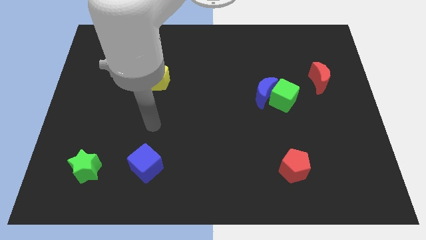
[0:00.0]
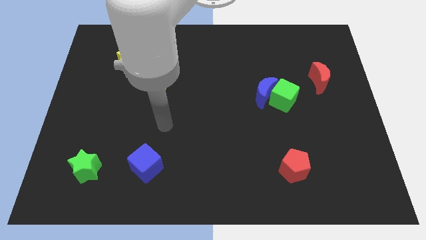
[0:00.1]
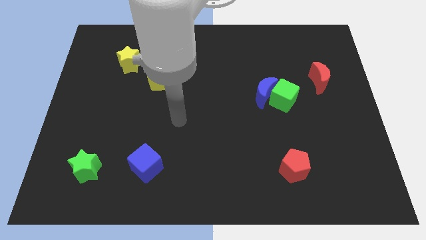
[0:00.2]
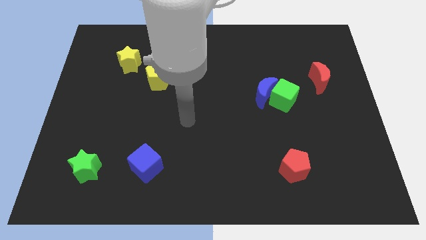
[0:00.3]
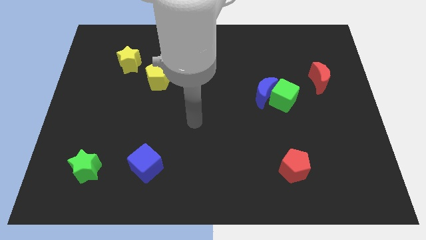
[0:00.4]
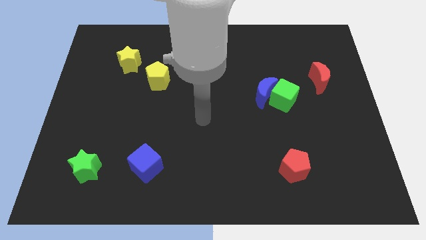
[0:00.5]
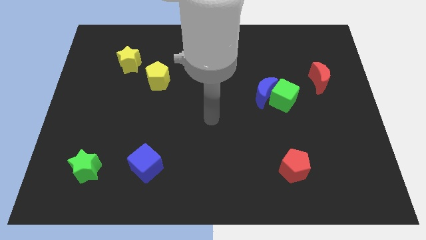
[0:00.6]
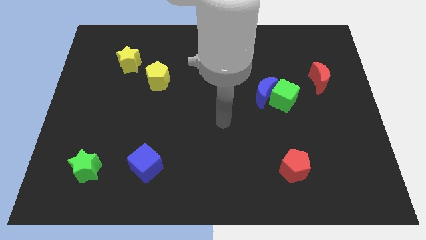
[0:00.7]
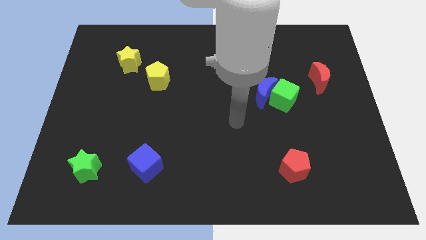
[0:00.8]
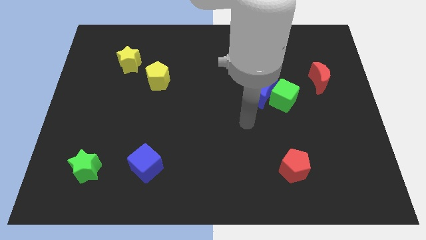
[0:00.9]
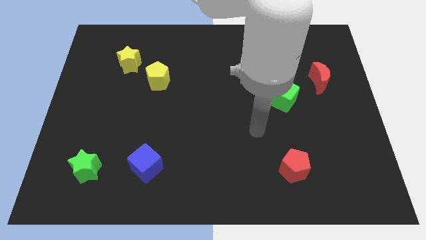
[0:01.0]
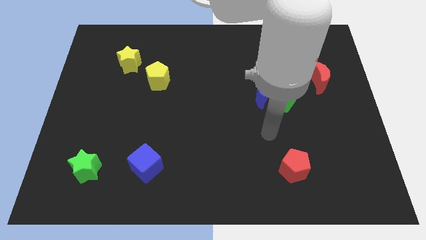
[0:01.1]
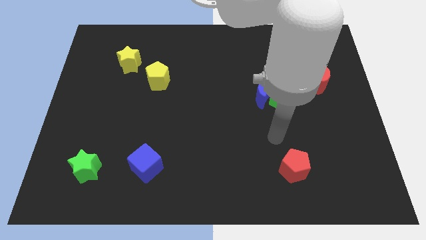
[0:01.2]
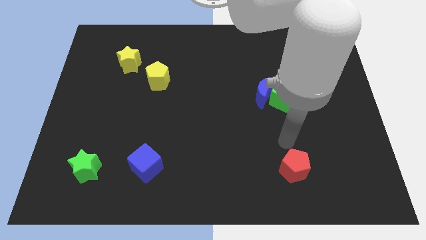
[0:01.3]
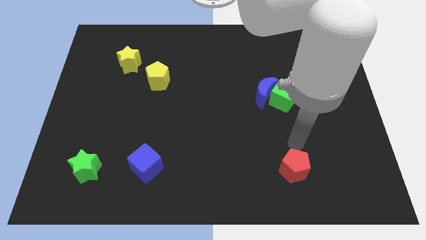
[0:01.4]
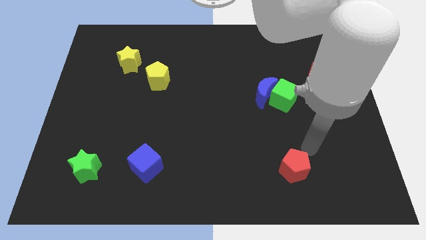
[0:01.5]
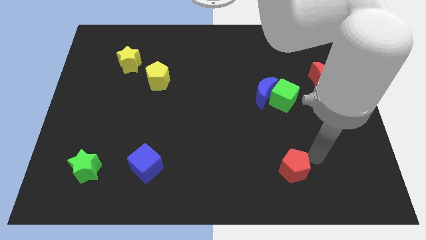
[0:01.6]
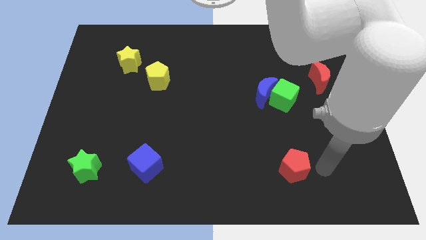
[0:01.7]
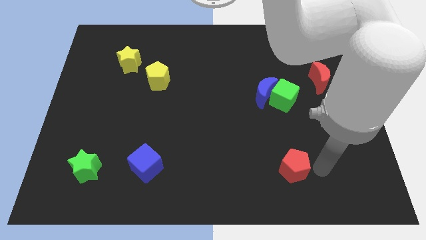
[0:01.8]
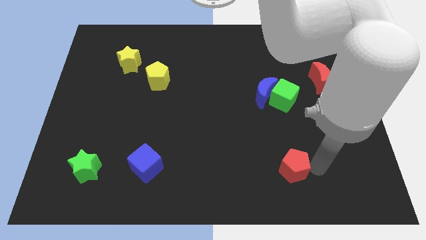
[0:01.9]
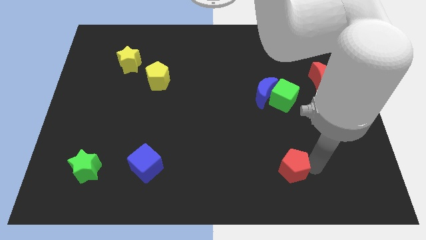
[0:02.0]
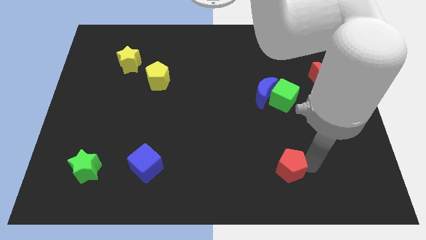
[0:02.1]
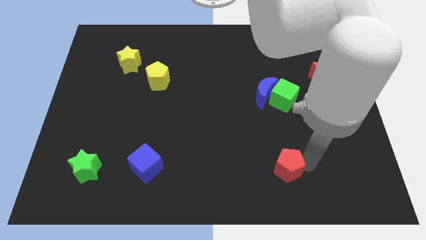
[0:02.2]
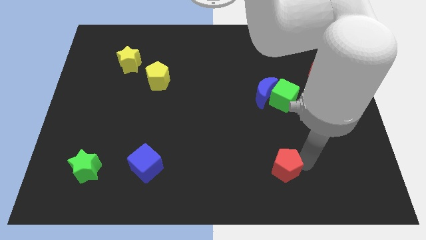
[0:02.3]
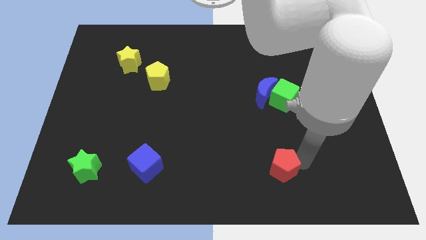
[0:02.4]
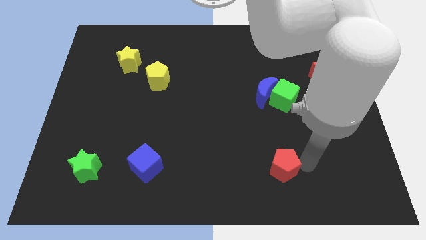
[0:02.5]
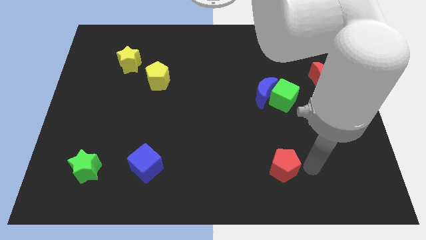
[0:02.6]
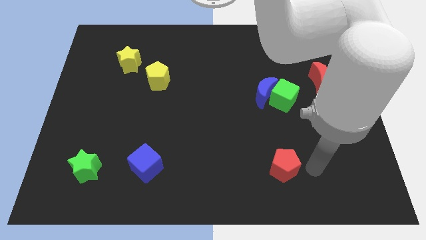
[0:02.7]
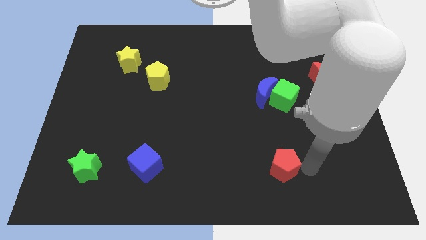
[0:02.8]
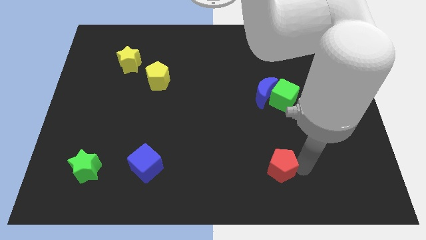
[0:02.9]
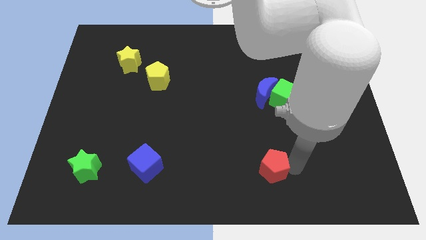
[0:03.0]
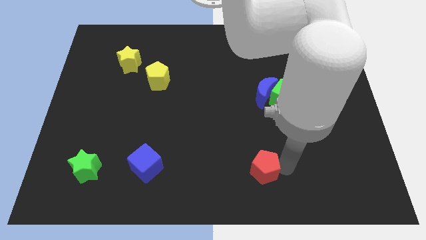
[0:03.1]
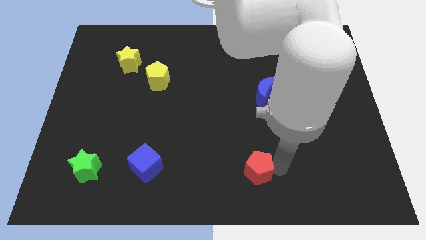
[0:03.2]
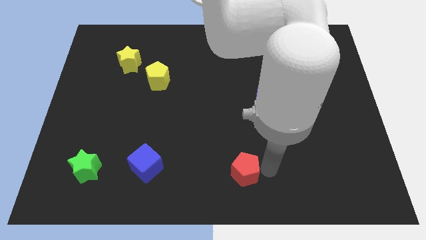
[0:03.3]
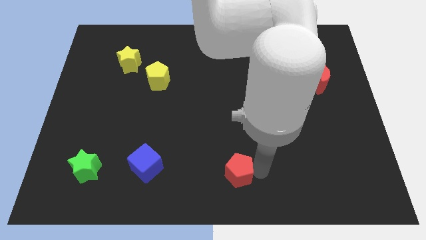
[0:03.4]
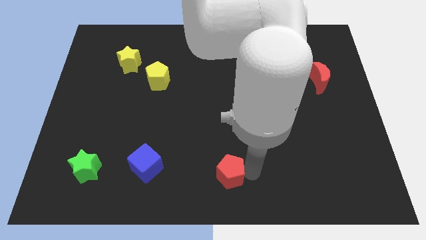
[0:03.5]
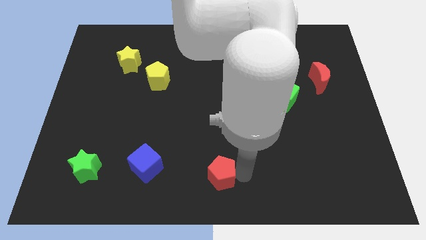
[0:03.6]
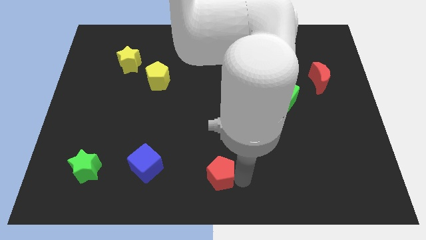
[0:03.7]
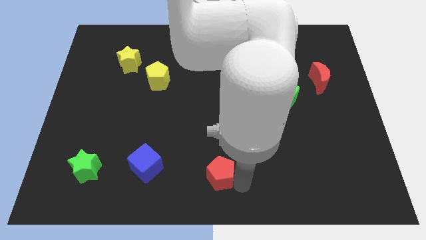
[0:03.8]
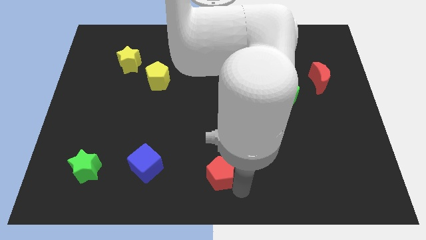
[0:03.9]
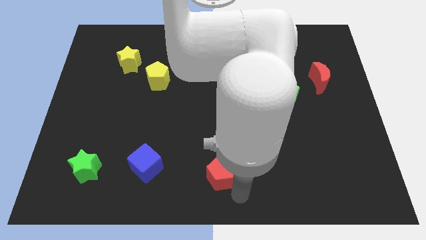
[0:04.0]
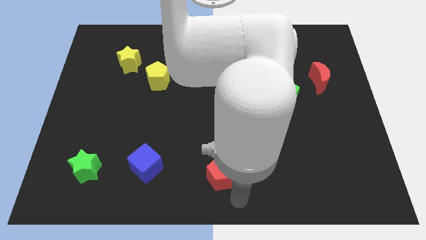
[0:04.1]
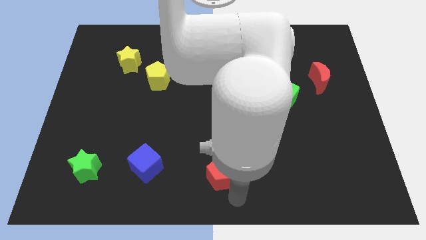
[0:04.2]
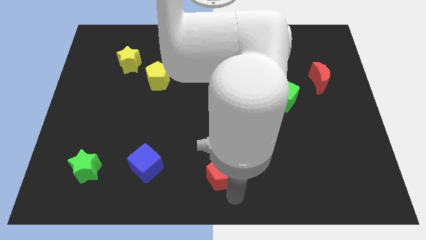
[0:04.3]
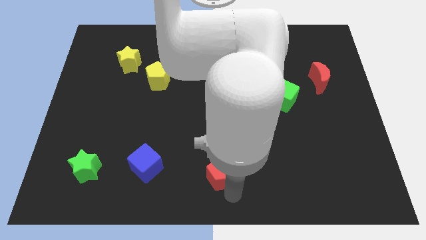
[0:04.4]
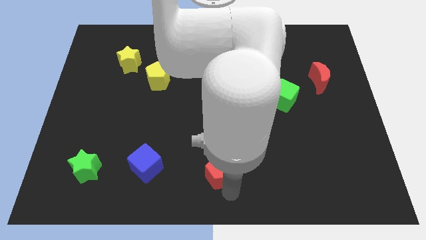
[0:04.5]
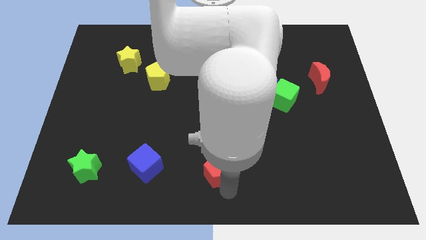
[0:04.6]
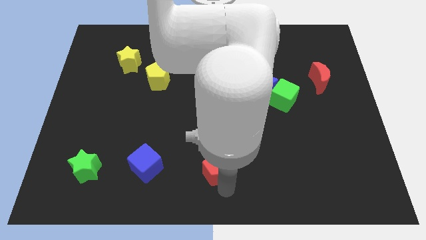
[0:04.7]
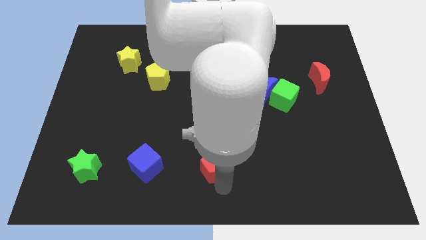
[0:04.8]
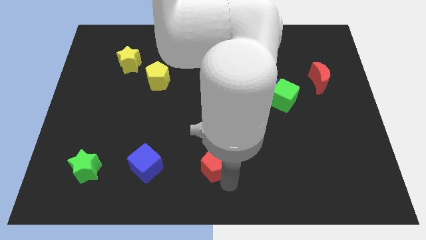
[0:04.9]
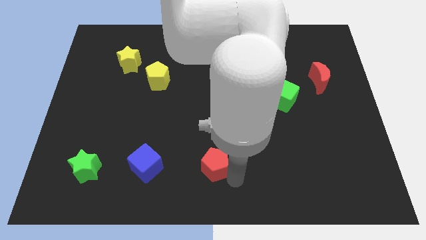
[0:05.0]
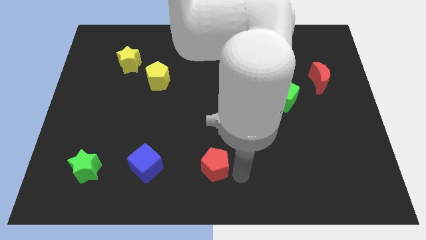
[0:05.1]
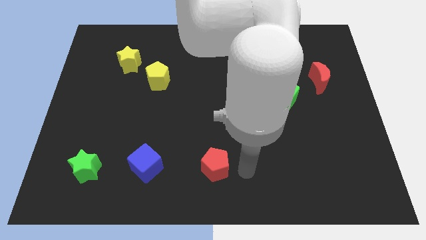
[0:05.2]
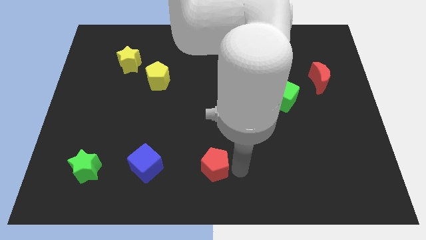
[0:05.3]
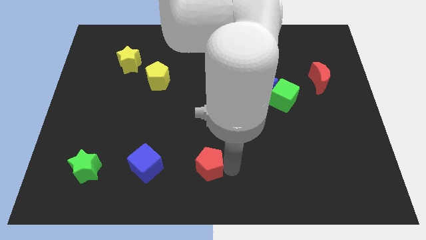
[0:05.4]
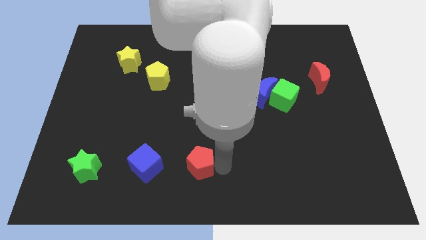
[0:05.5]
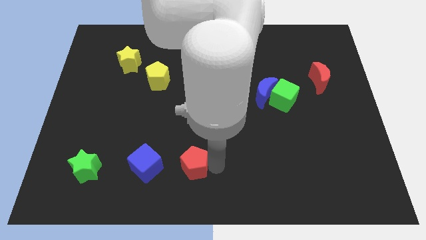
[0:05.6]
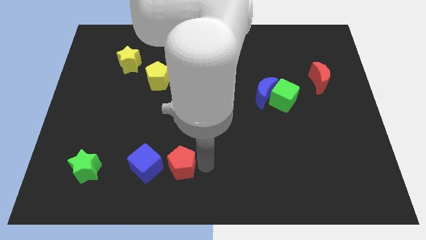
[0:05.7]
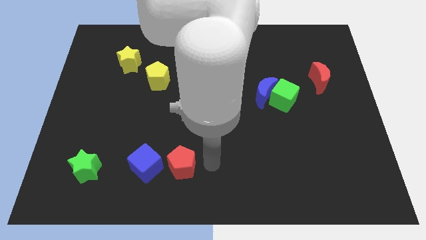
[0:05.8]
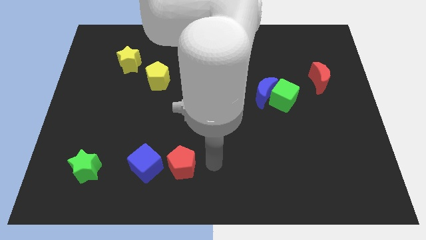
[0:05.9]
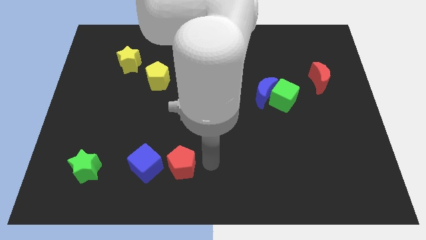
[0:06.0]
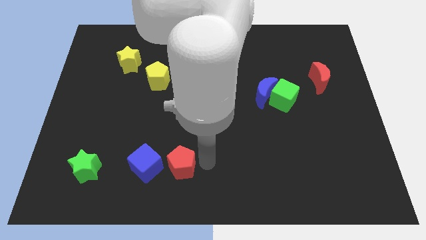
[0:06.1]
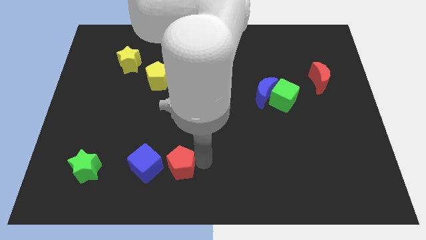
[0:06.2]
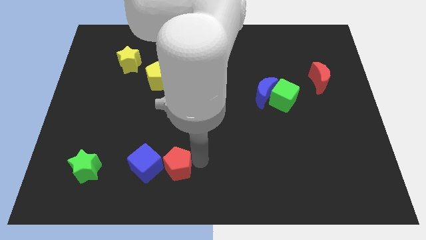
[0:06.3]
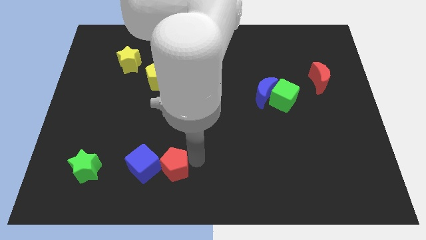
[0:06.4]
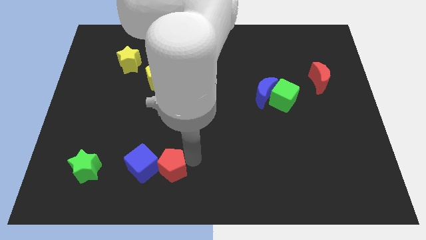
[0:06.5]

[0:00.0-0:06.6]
slide the red pentagon next to the blue cube

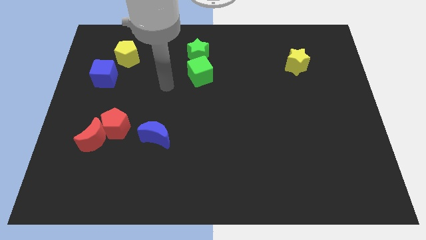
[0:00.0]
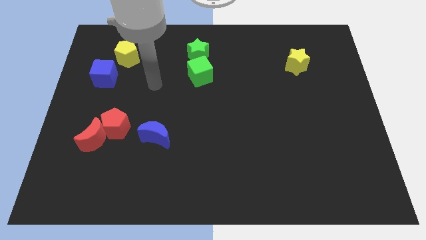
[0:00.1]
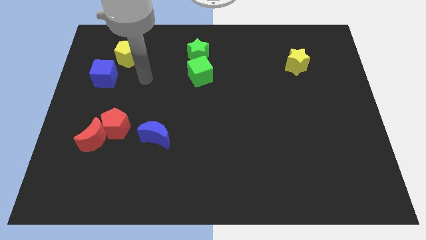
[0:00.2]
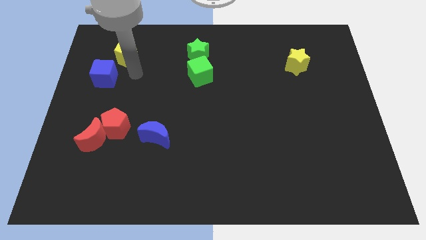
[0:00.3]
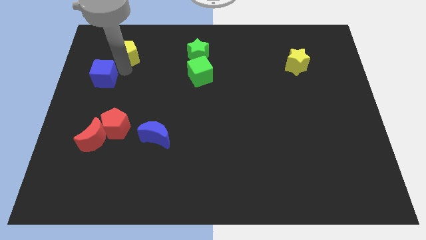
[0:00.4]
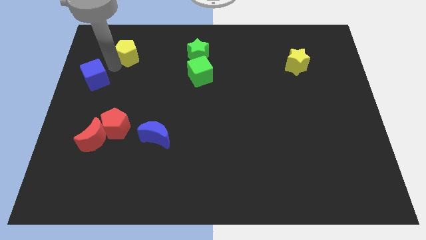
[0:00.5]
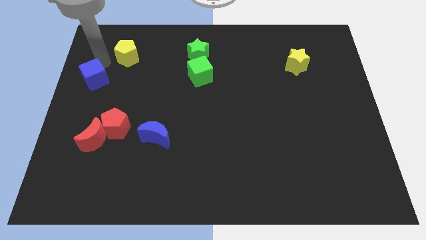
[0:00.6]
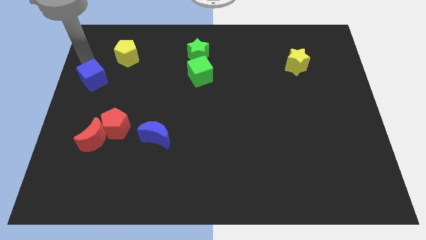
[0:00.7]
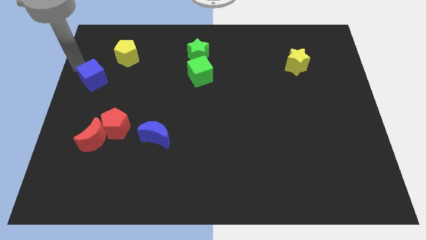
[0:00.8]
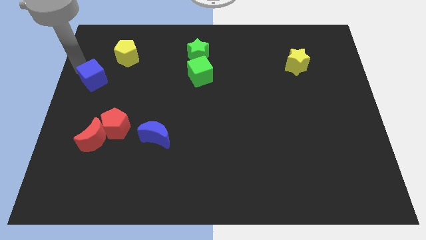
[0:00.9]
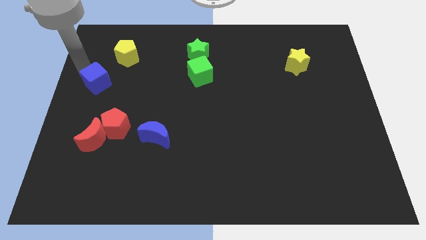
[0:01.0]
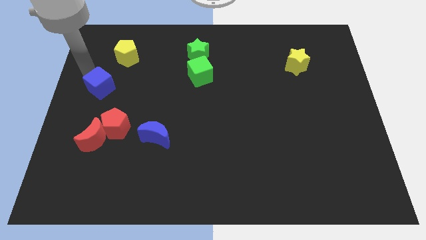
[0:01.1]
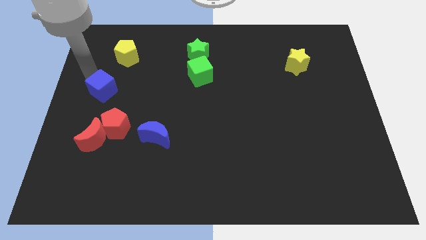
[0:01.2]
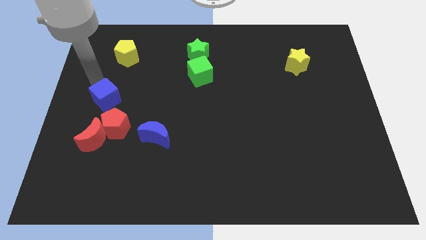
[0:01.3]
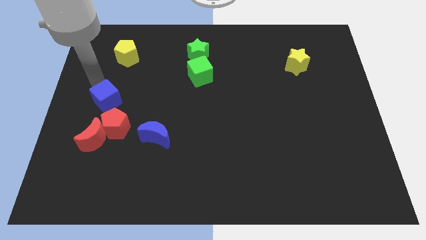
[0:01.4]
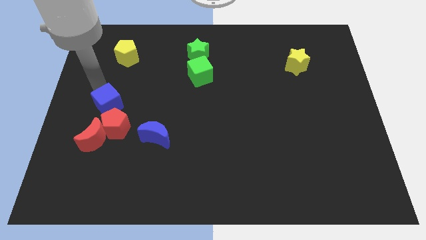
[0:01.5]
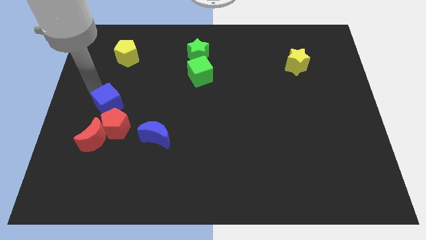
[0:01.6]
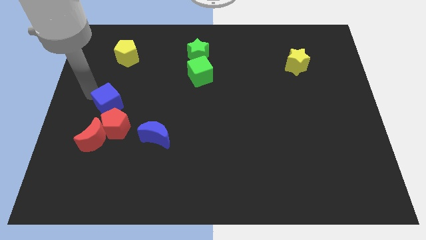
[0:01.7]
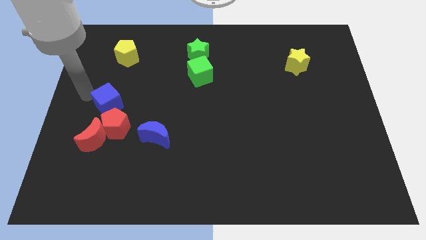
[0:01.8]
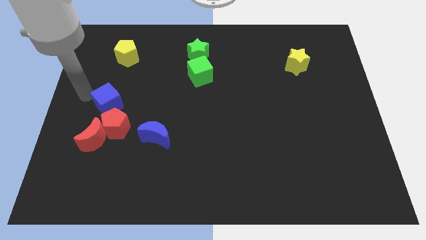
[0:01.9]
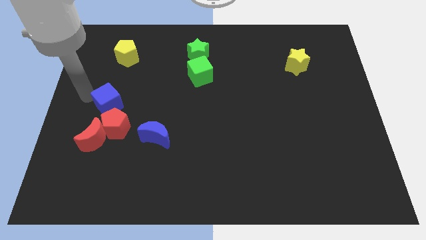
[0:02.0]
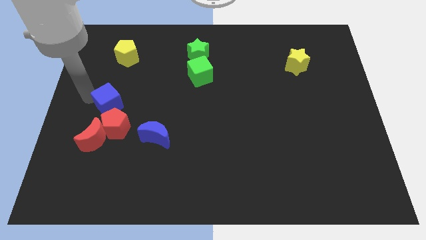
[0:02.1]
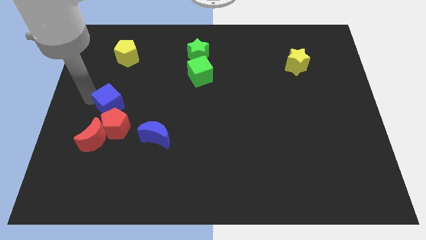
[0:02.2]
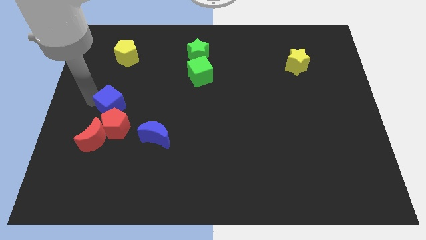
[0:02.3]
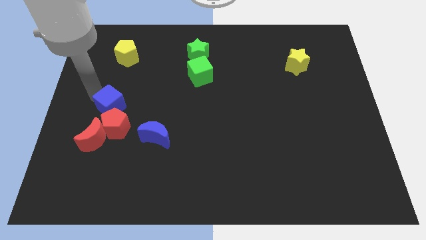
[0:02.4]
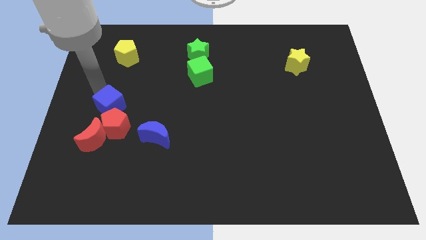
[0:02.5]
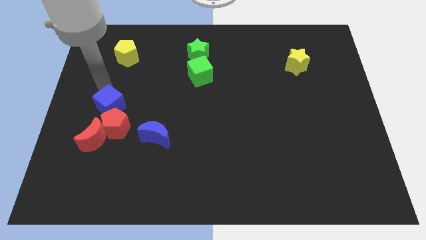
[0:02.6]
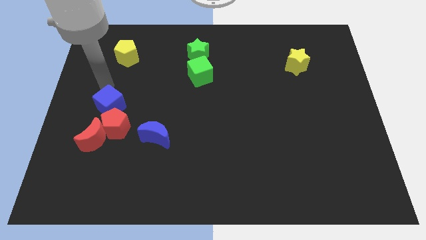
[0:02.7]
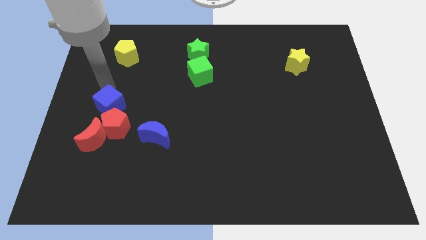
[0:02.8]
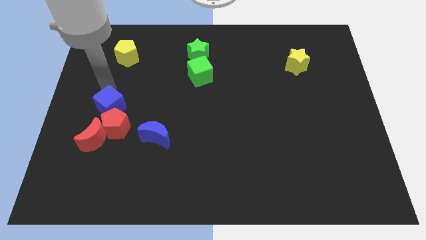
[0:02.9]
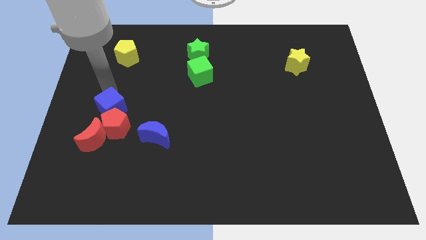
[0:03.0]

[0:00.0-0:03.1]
push the blue cube to the red pentagon
